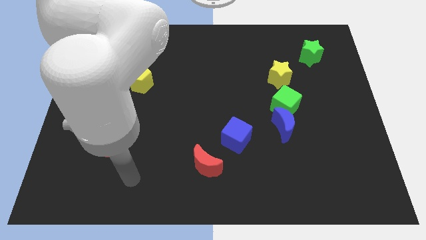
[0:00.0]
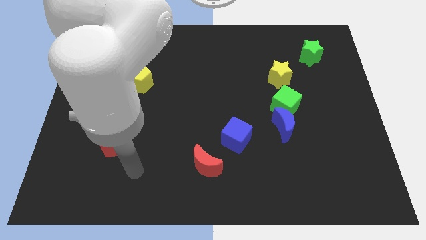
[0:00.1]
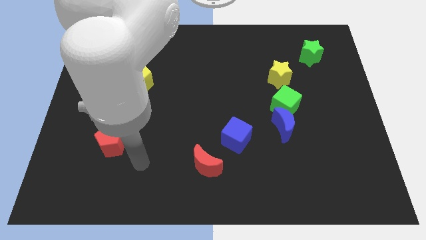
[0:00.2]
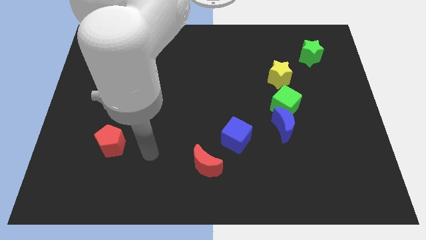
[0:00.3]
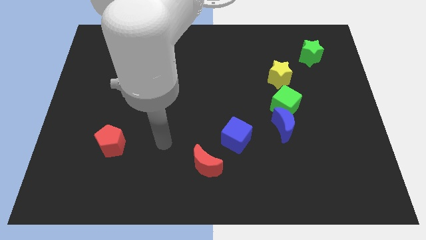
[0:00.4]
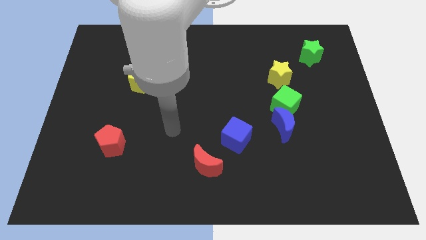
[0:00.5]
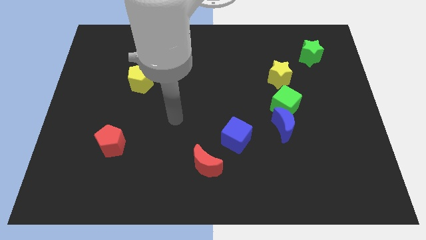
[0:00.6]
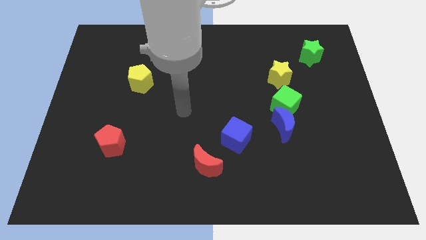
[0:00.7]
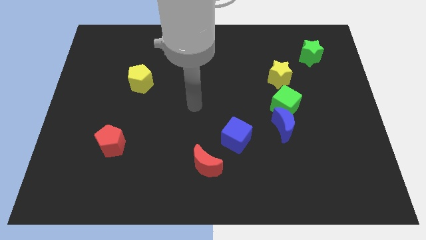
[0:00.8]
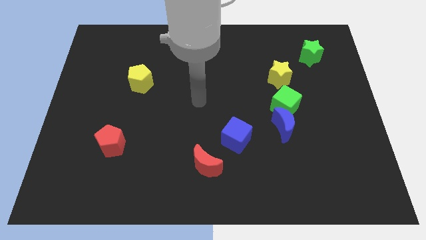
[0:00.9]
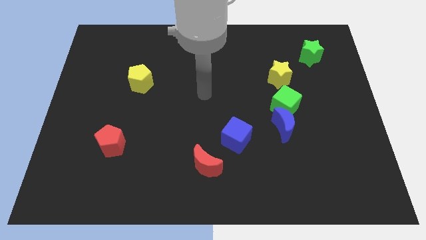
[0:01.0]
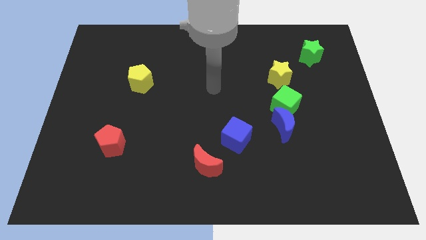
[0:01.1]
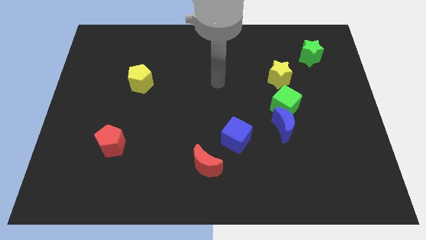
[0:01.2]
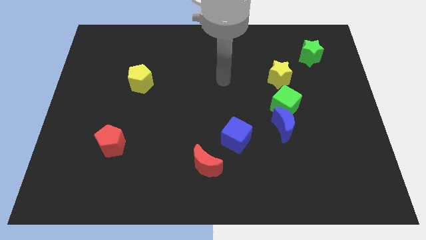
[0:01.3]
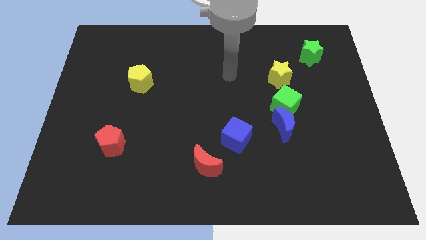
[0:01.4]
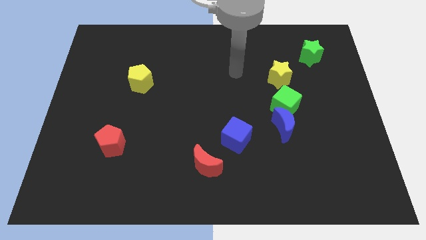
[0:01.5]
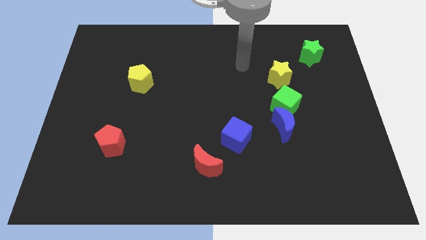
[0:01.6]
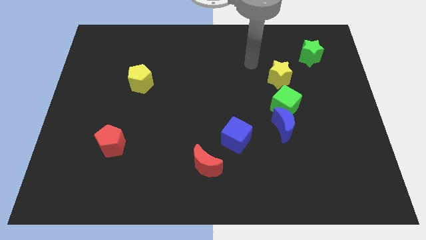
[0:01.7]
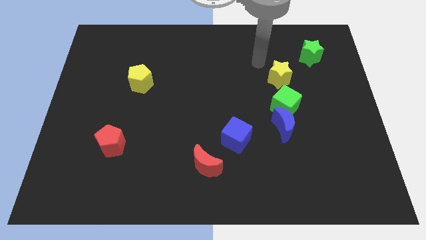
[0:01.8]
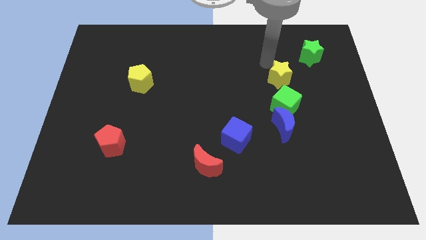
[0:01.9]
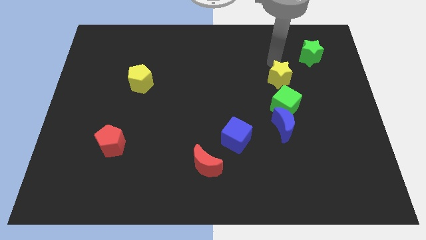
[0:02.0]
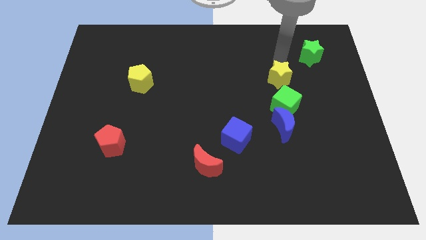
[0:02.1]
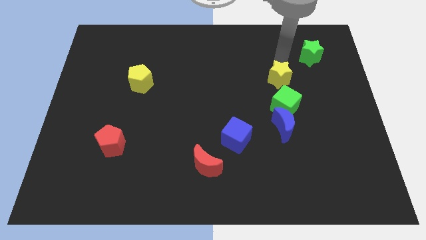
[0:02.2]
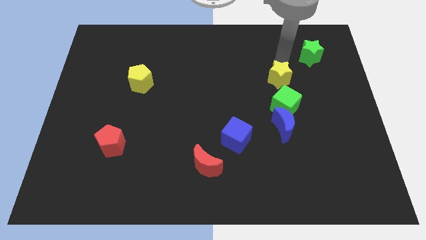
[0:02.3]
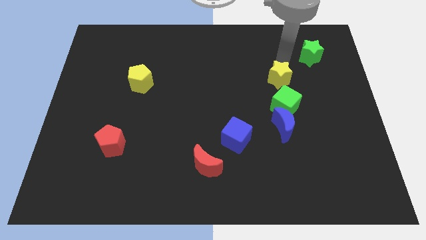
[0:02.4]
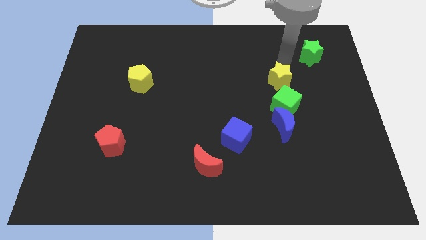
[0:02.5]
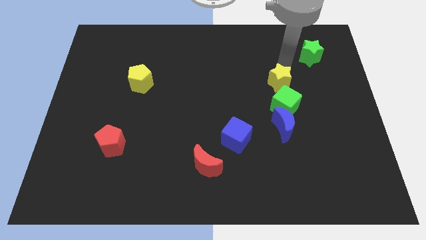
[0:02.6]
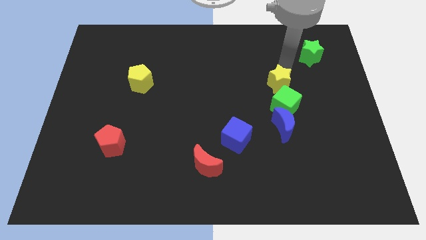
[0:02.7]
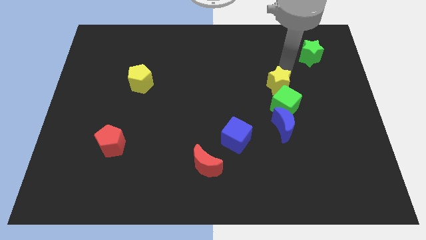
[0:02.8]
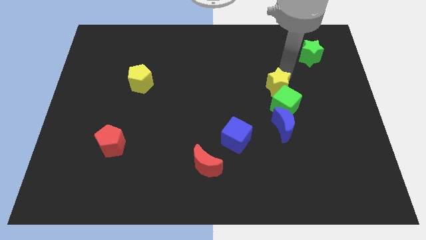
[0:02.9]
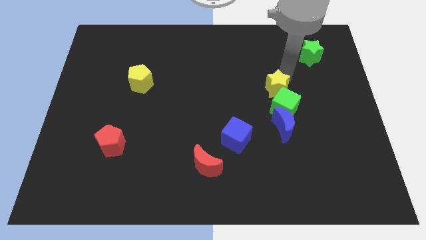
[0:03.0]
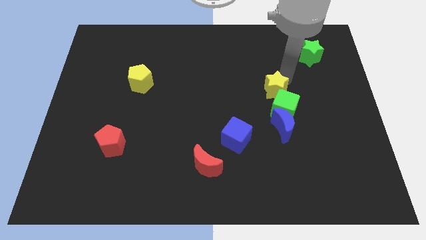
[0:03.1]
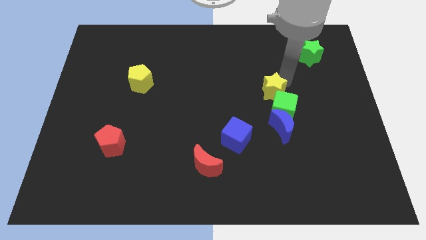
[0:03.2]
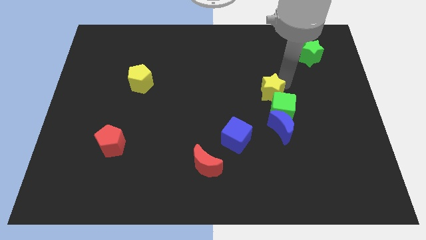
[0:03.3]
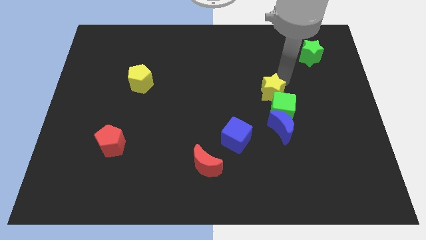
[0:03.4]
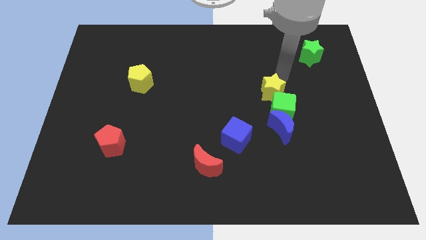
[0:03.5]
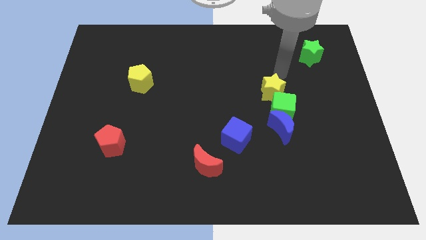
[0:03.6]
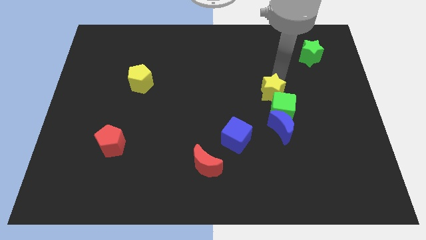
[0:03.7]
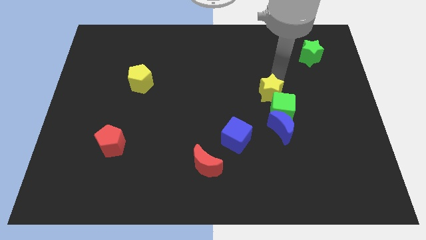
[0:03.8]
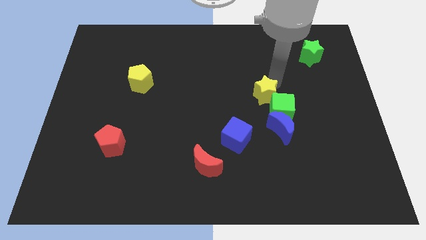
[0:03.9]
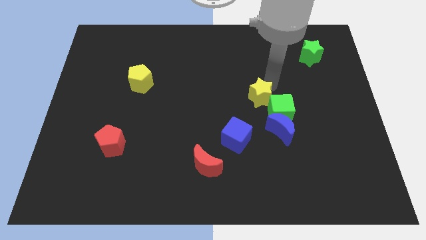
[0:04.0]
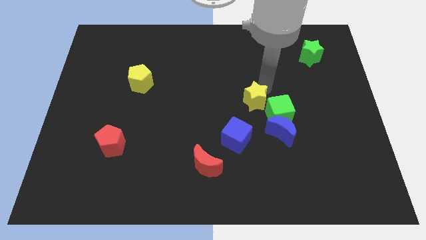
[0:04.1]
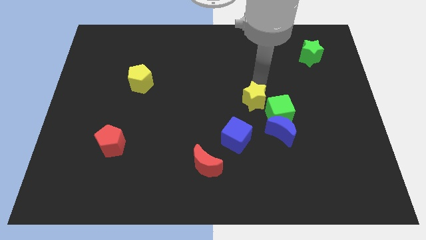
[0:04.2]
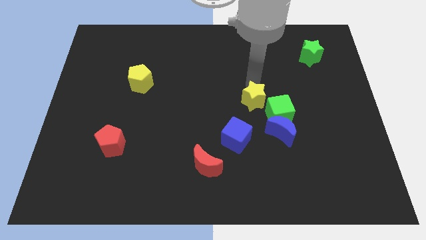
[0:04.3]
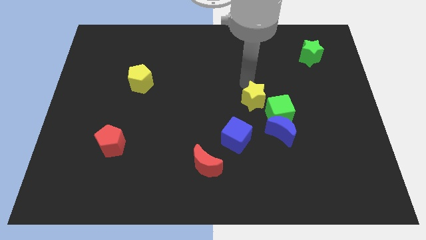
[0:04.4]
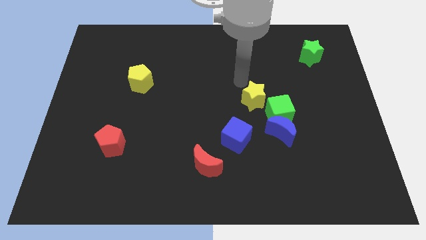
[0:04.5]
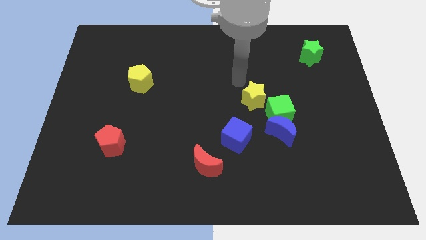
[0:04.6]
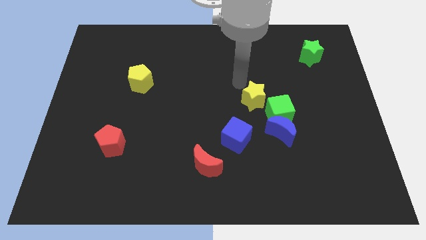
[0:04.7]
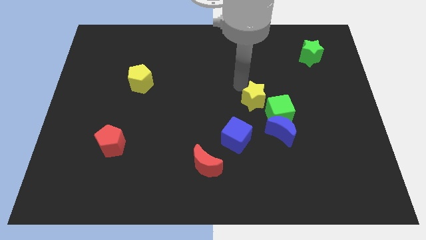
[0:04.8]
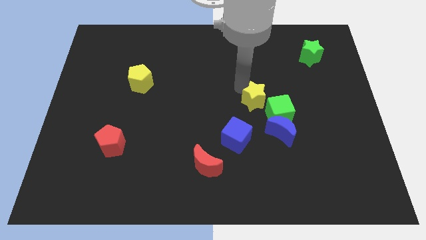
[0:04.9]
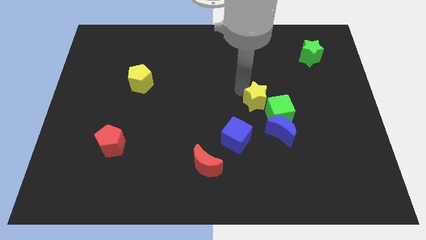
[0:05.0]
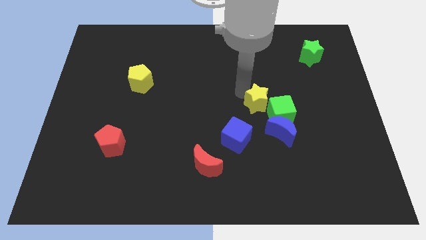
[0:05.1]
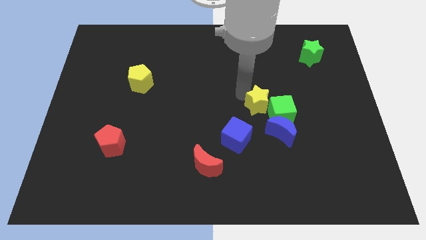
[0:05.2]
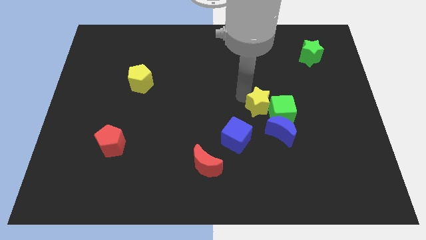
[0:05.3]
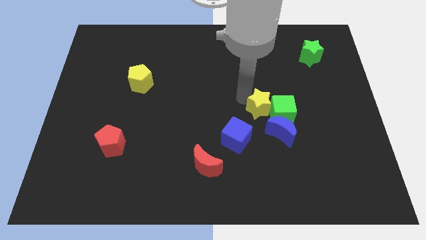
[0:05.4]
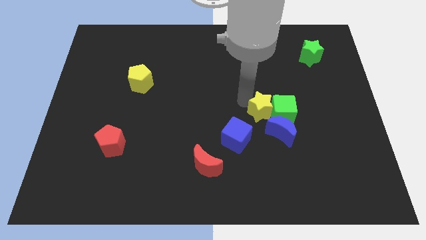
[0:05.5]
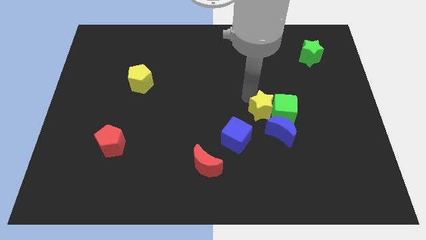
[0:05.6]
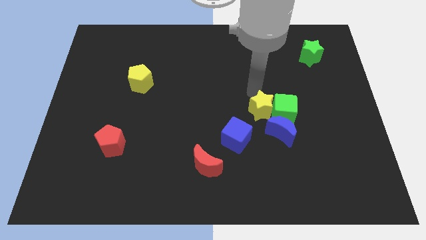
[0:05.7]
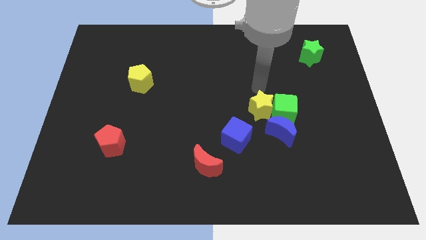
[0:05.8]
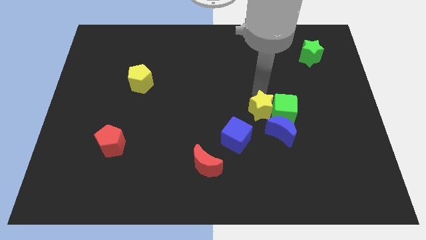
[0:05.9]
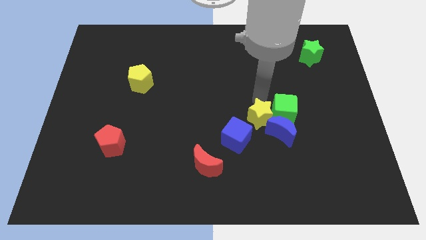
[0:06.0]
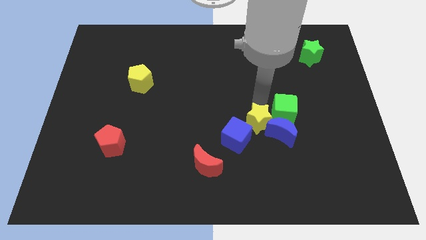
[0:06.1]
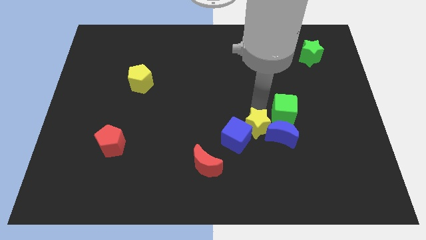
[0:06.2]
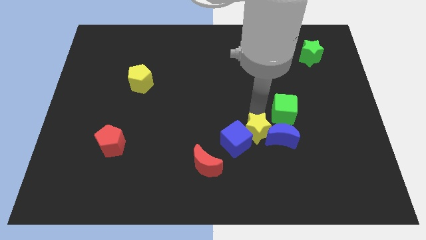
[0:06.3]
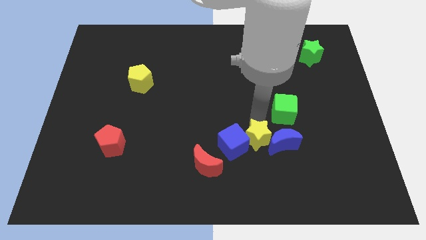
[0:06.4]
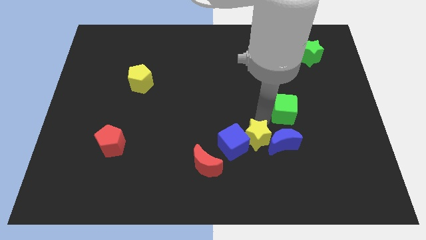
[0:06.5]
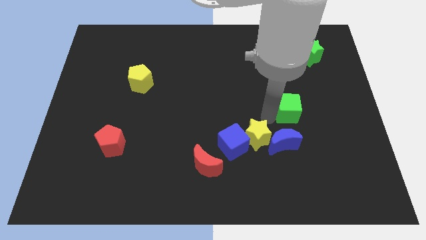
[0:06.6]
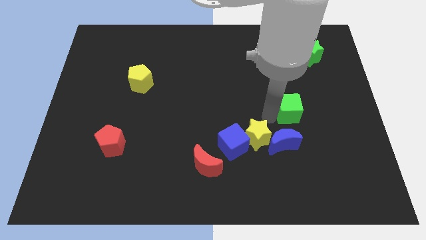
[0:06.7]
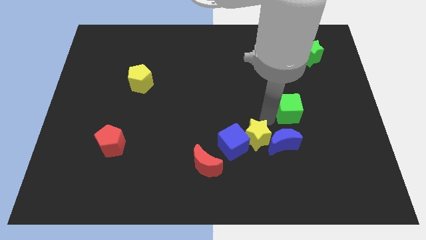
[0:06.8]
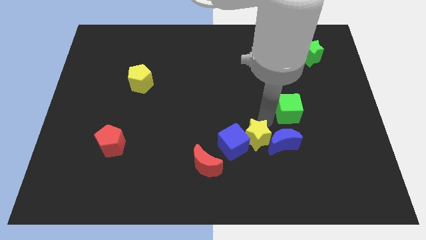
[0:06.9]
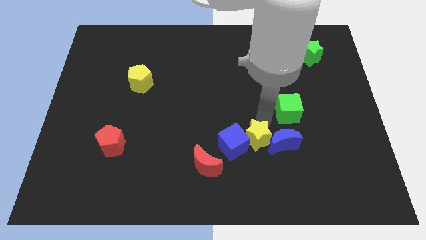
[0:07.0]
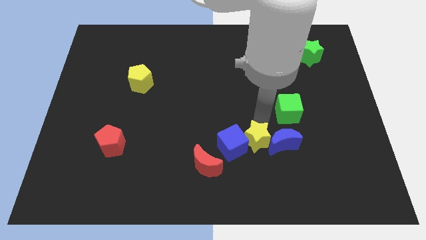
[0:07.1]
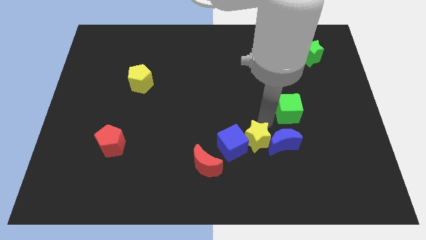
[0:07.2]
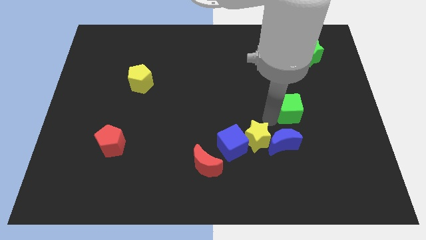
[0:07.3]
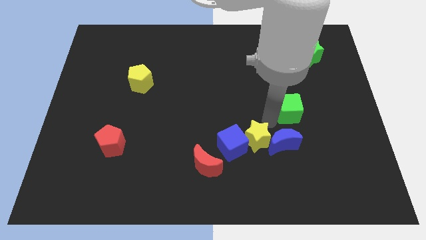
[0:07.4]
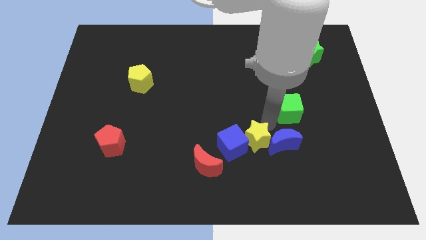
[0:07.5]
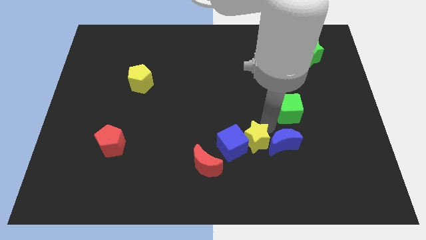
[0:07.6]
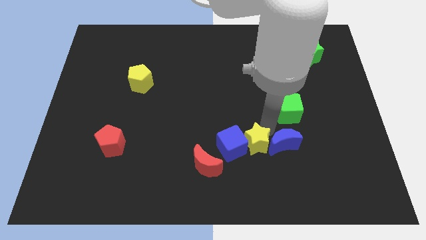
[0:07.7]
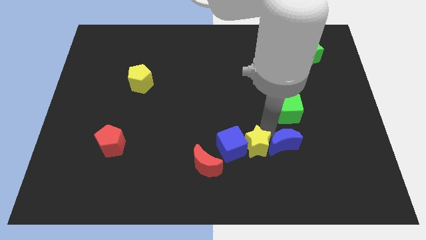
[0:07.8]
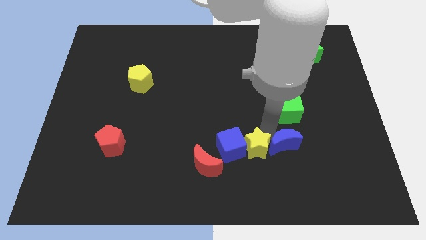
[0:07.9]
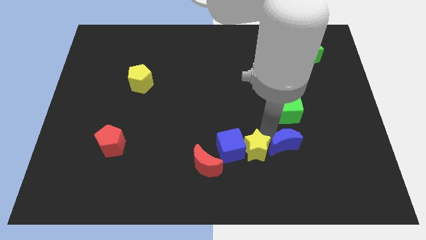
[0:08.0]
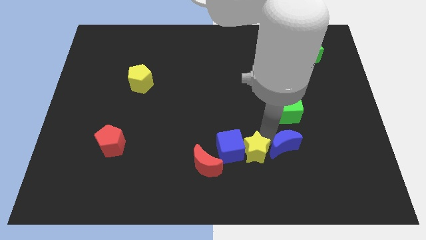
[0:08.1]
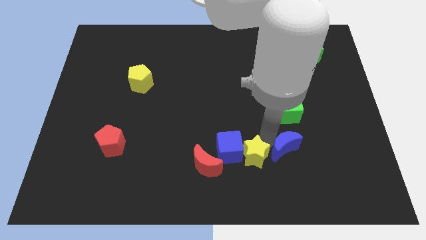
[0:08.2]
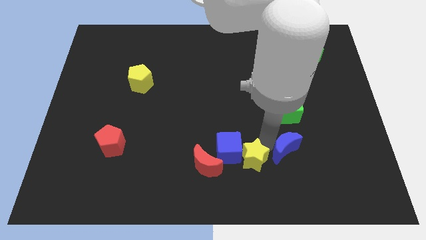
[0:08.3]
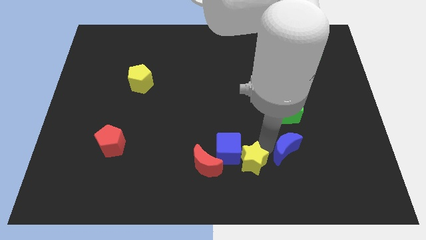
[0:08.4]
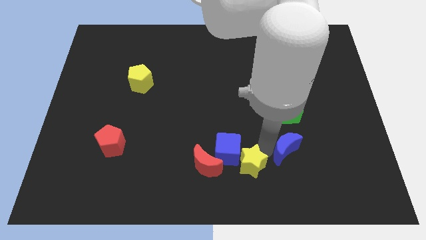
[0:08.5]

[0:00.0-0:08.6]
put the yellow star to the bottom
